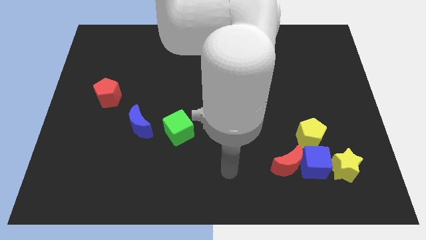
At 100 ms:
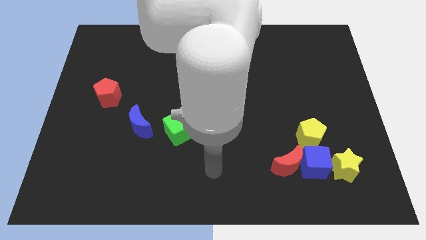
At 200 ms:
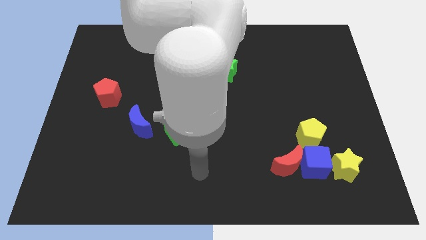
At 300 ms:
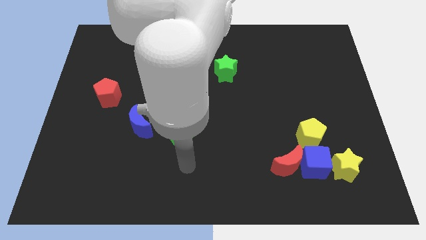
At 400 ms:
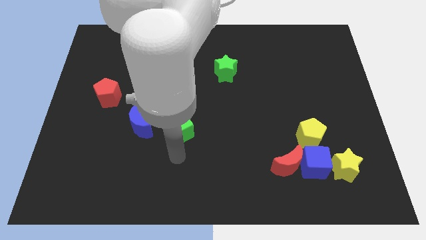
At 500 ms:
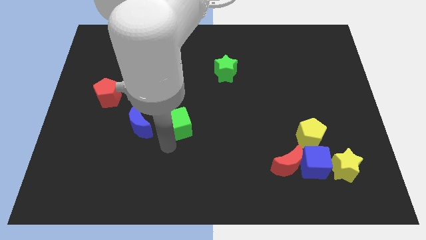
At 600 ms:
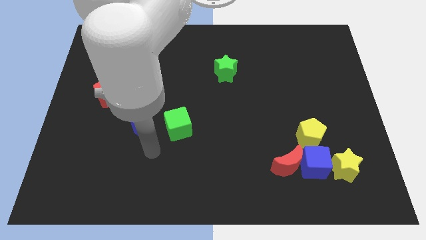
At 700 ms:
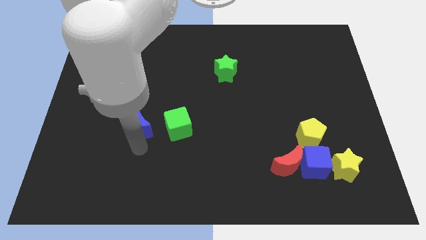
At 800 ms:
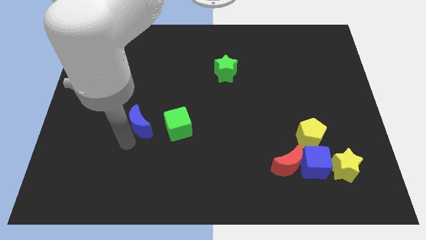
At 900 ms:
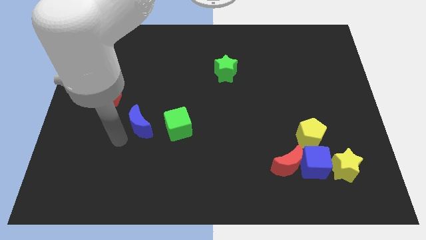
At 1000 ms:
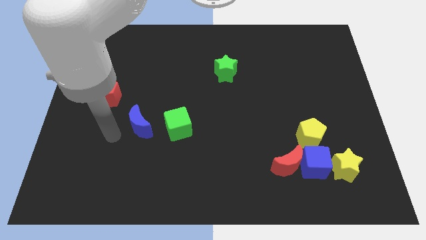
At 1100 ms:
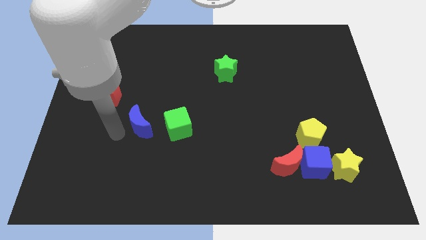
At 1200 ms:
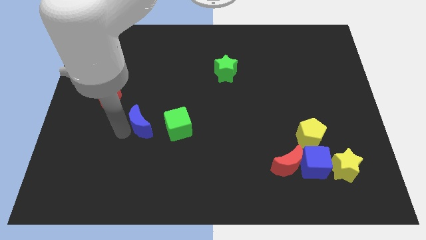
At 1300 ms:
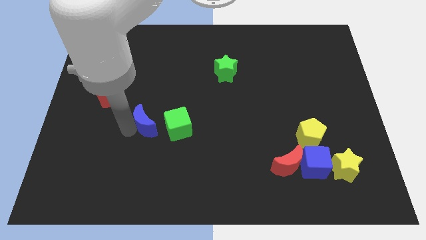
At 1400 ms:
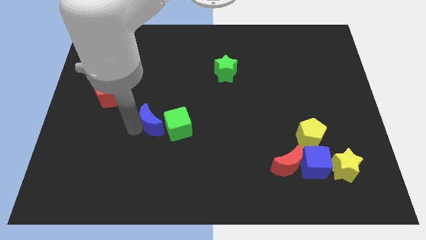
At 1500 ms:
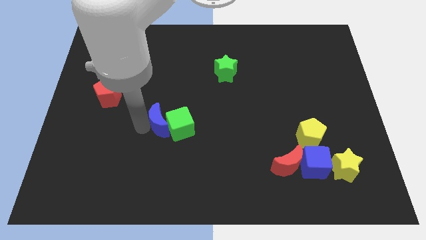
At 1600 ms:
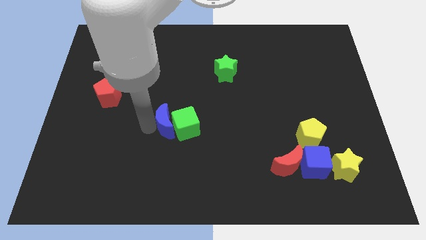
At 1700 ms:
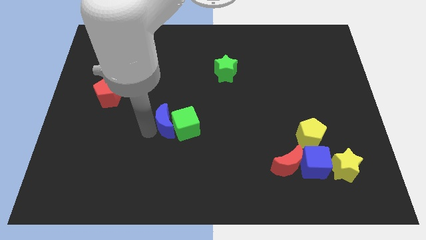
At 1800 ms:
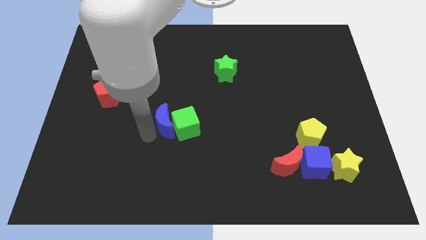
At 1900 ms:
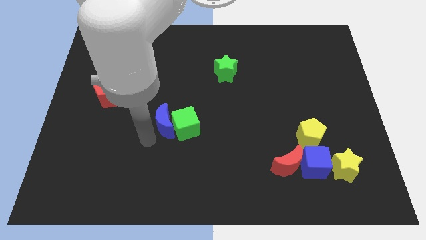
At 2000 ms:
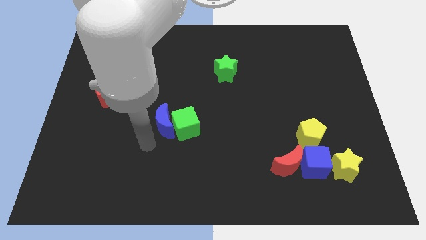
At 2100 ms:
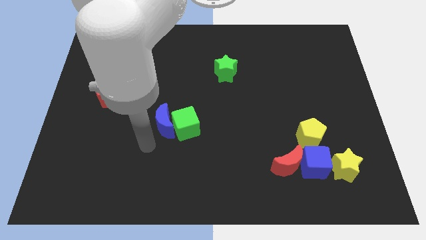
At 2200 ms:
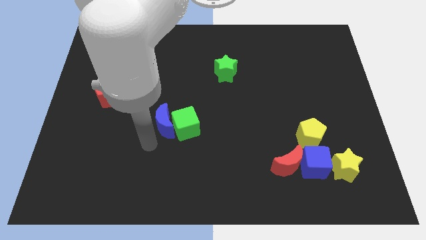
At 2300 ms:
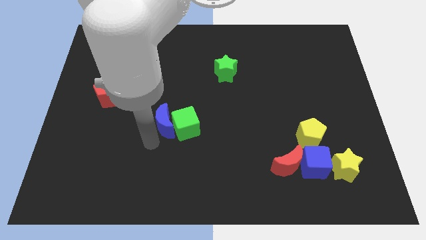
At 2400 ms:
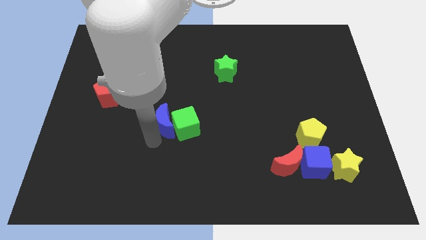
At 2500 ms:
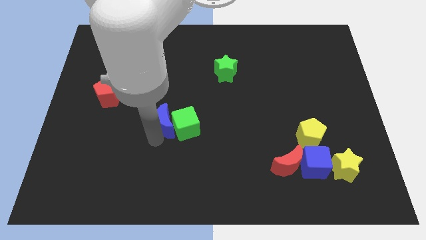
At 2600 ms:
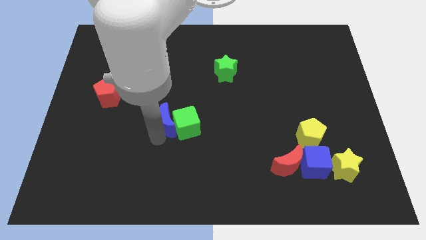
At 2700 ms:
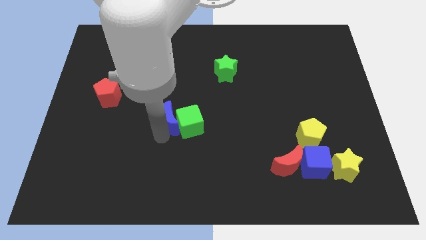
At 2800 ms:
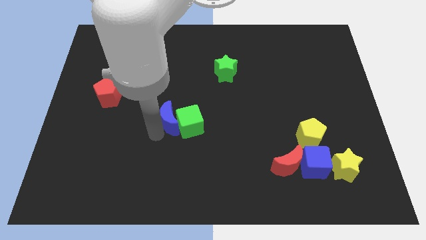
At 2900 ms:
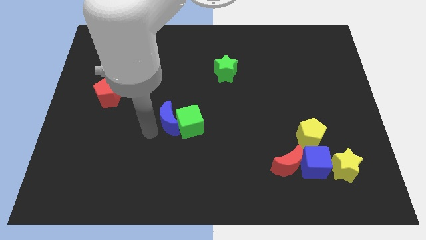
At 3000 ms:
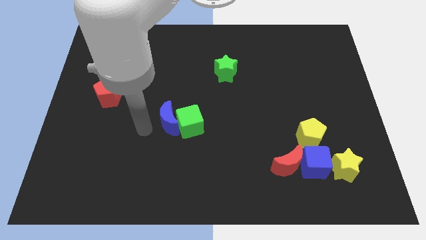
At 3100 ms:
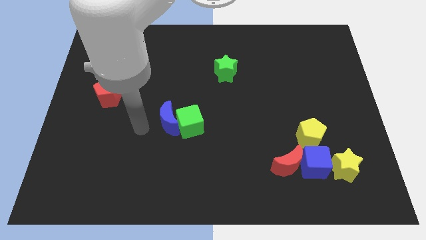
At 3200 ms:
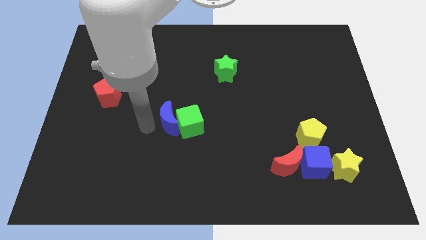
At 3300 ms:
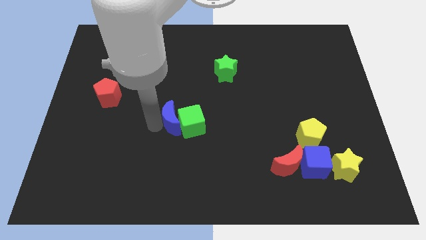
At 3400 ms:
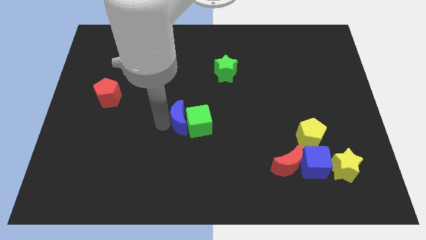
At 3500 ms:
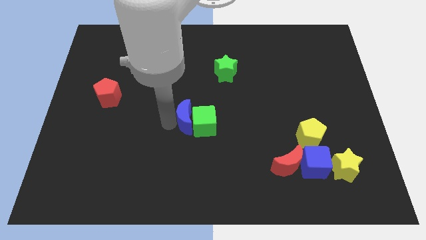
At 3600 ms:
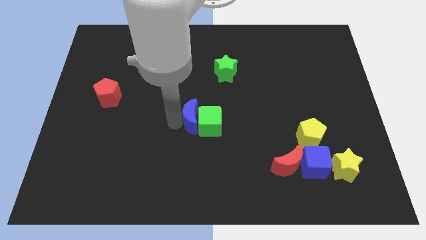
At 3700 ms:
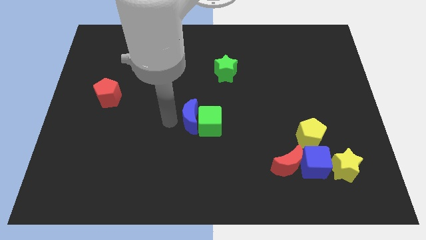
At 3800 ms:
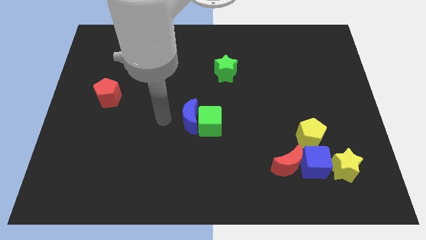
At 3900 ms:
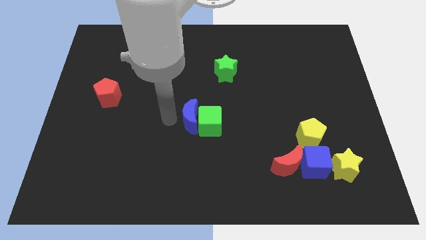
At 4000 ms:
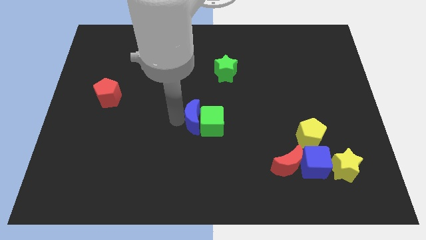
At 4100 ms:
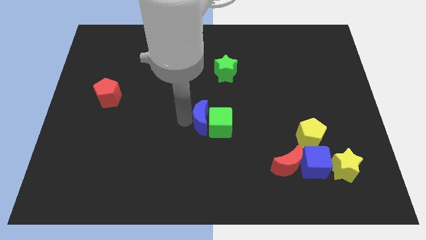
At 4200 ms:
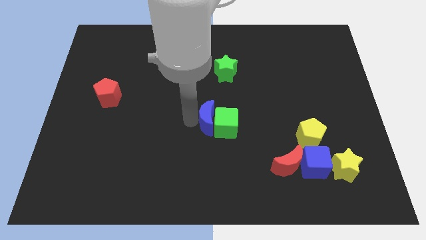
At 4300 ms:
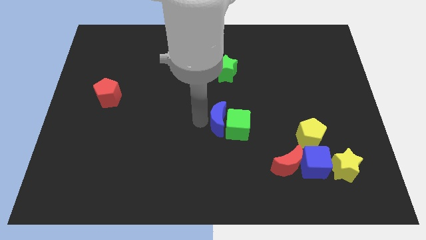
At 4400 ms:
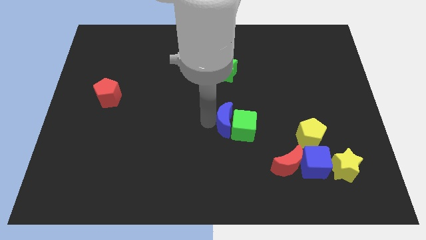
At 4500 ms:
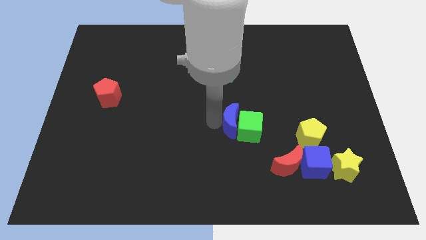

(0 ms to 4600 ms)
move the blue moon to the right

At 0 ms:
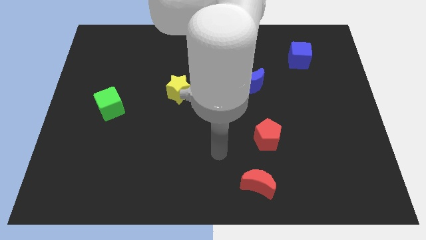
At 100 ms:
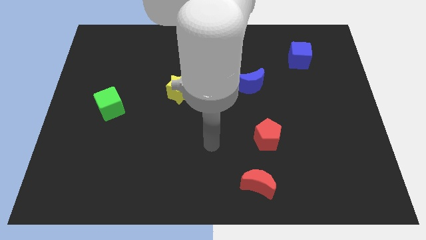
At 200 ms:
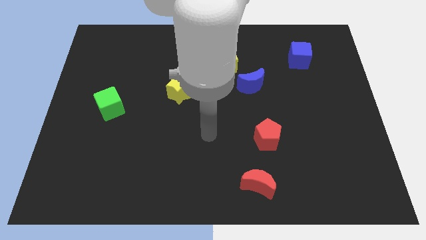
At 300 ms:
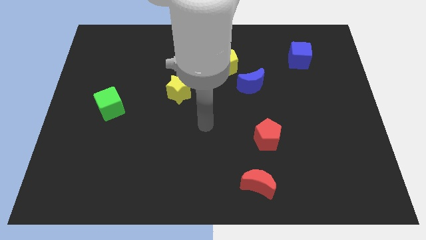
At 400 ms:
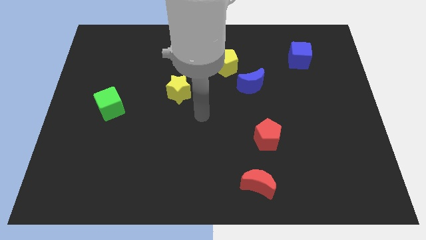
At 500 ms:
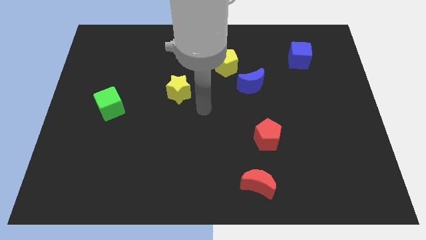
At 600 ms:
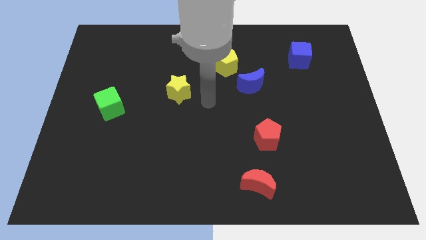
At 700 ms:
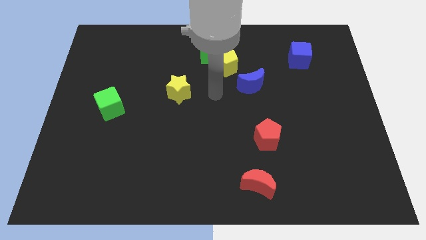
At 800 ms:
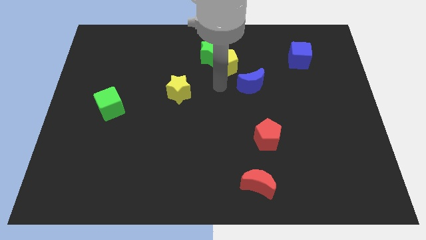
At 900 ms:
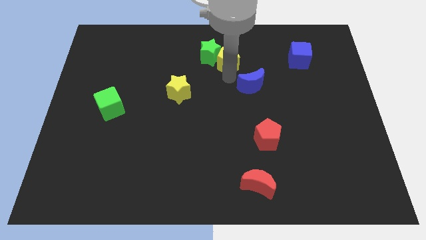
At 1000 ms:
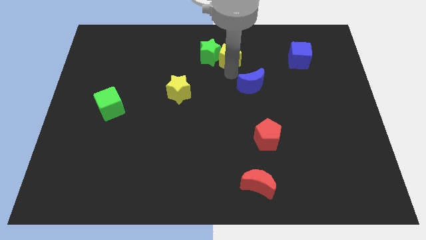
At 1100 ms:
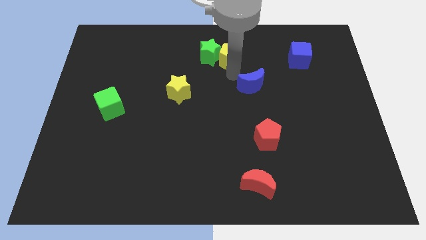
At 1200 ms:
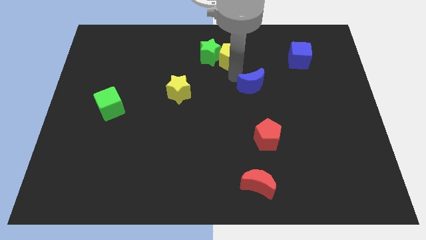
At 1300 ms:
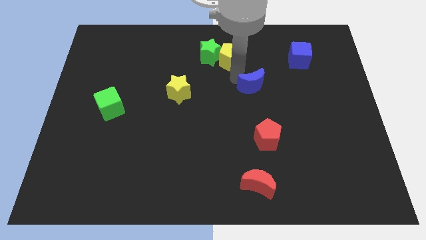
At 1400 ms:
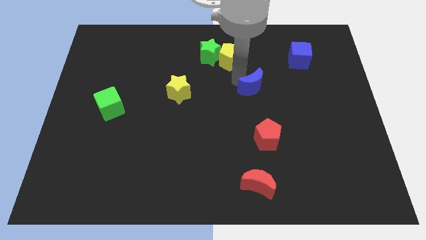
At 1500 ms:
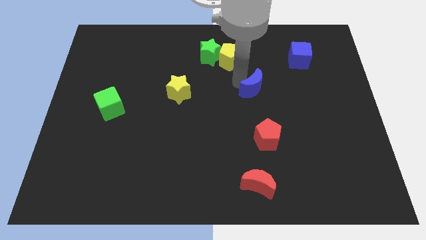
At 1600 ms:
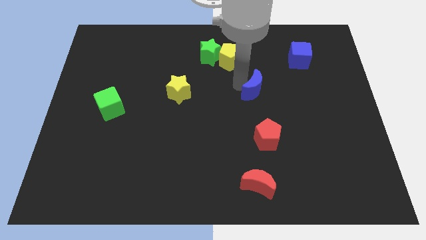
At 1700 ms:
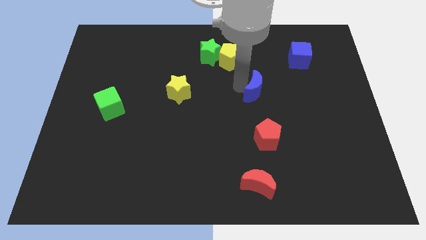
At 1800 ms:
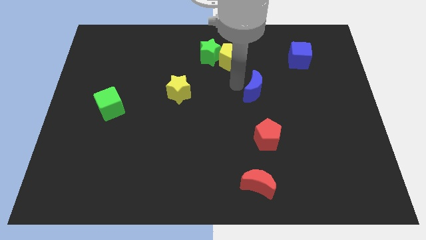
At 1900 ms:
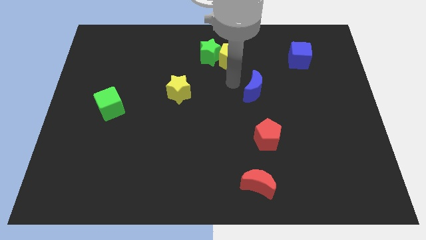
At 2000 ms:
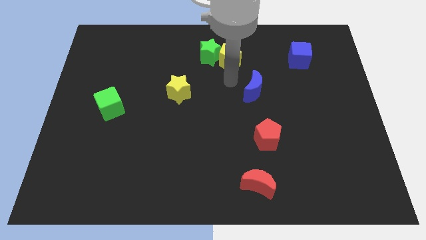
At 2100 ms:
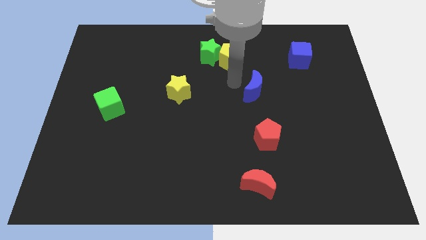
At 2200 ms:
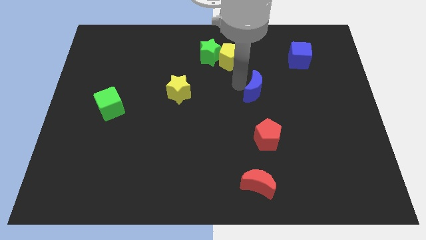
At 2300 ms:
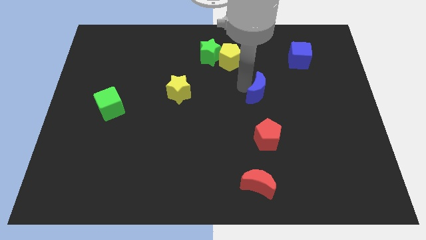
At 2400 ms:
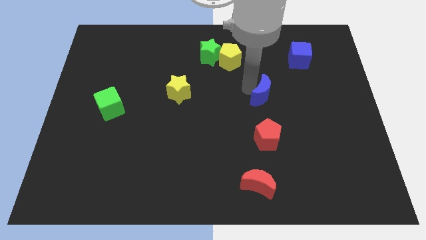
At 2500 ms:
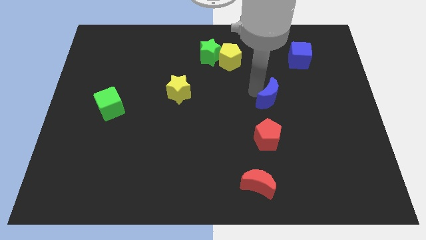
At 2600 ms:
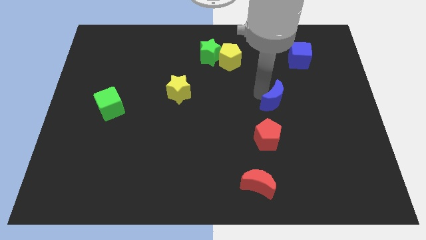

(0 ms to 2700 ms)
slightly slide the blue moon diagonally down and right

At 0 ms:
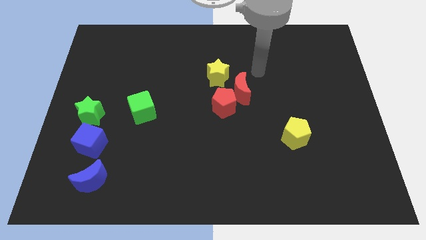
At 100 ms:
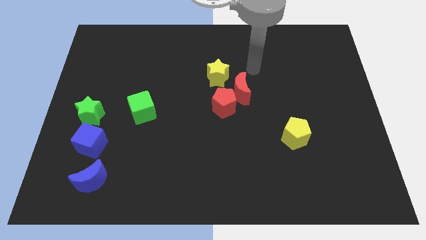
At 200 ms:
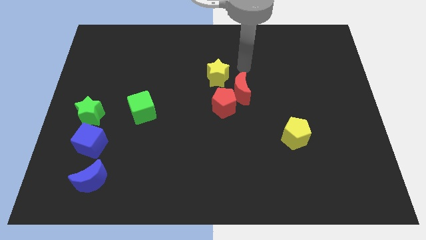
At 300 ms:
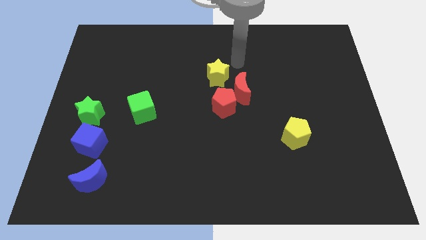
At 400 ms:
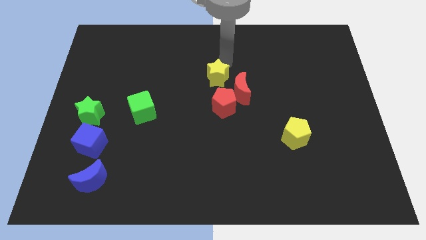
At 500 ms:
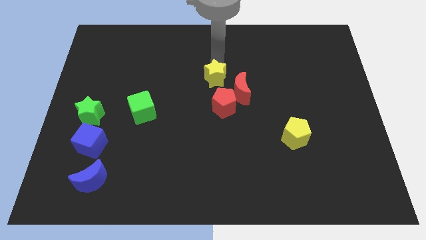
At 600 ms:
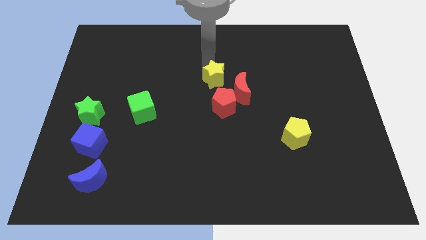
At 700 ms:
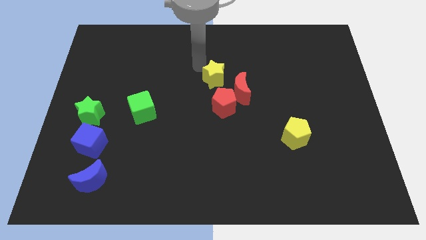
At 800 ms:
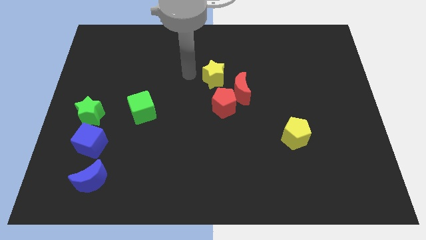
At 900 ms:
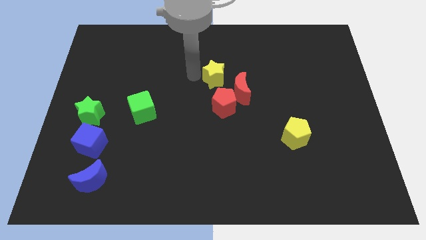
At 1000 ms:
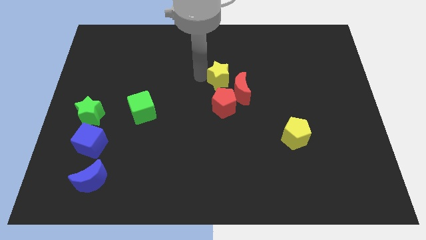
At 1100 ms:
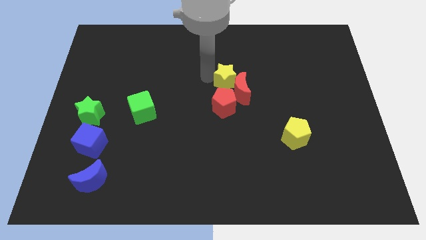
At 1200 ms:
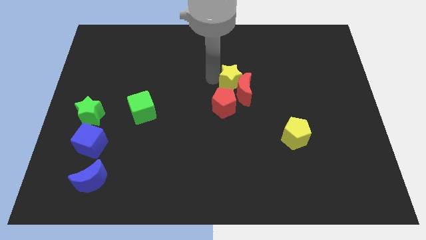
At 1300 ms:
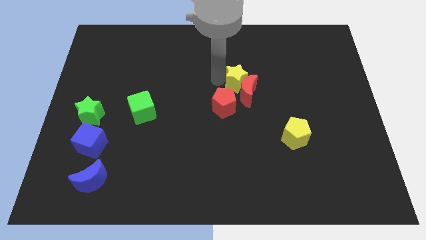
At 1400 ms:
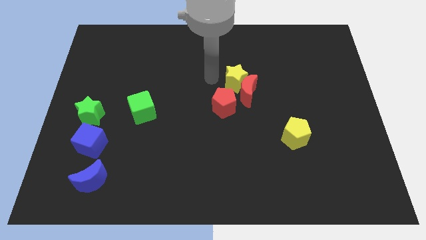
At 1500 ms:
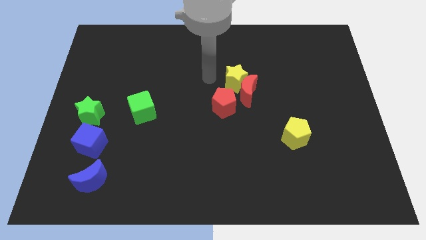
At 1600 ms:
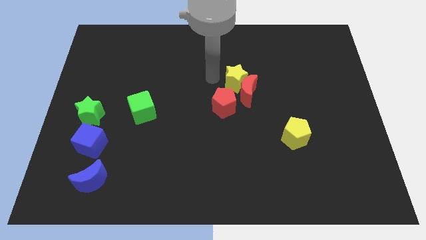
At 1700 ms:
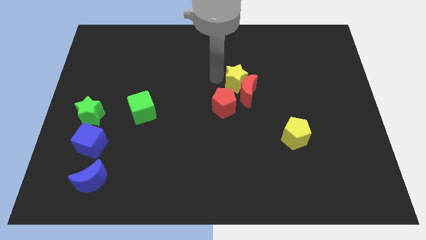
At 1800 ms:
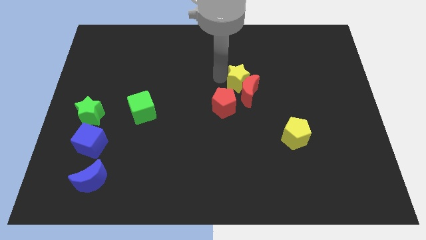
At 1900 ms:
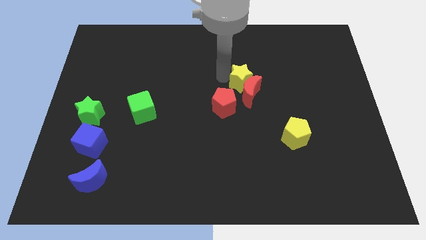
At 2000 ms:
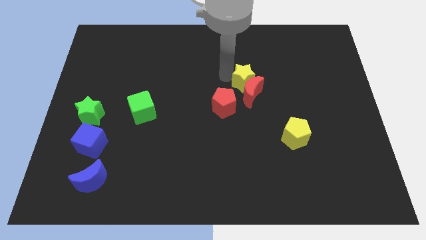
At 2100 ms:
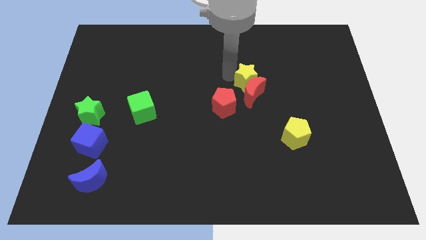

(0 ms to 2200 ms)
slide the yellow star a little right
